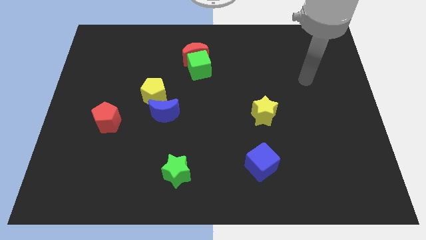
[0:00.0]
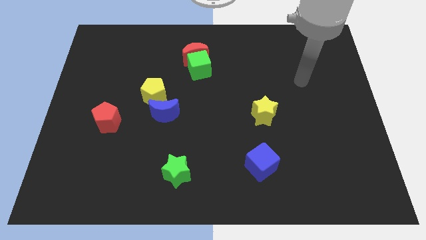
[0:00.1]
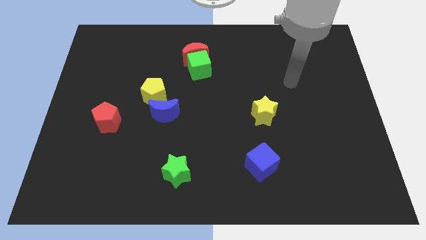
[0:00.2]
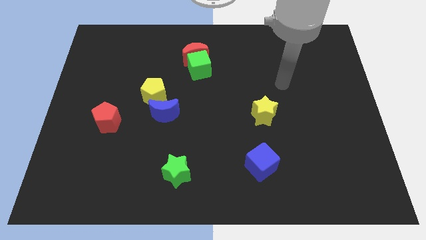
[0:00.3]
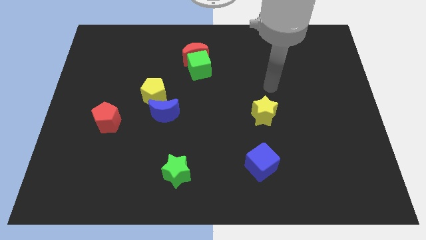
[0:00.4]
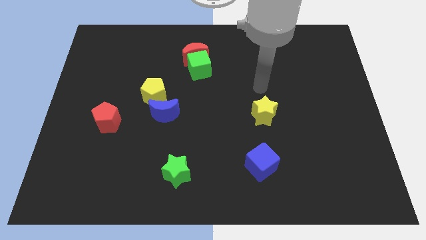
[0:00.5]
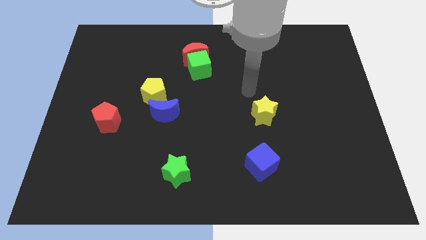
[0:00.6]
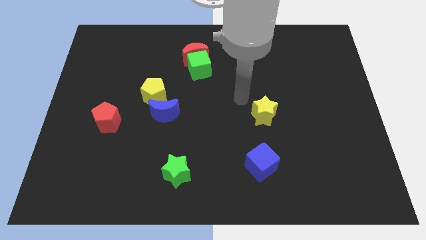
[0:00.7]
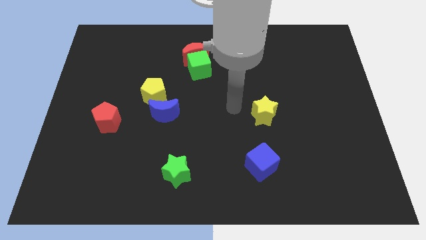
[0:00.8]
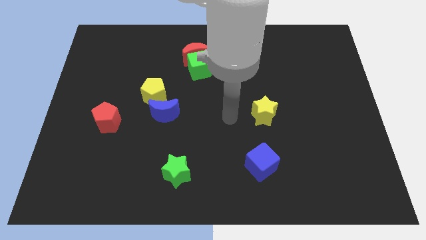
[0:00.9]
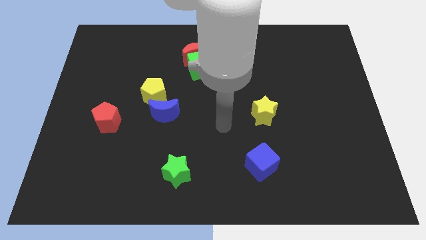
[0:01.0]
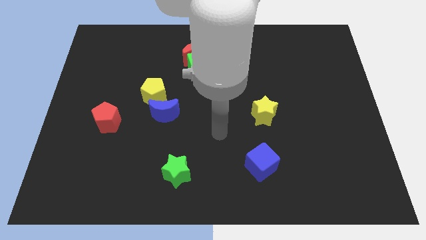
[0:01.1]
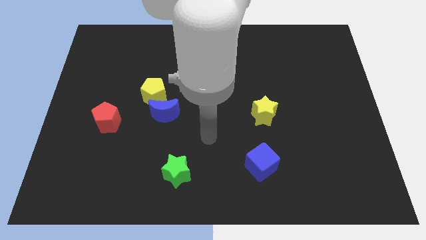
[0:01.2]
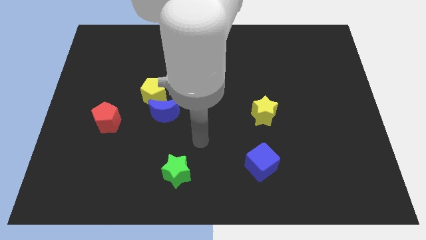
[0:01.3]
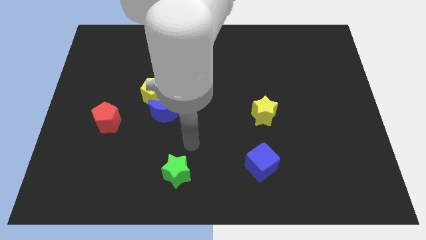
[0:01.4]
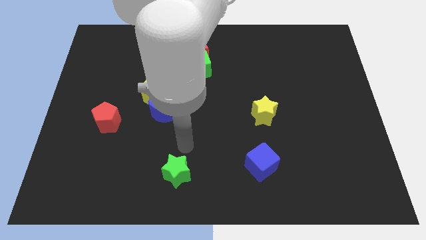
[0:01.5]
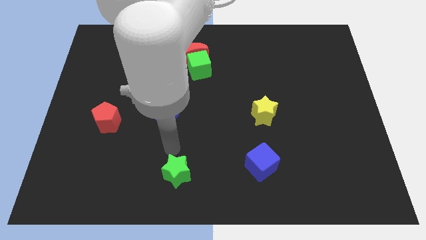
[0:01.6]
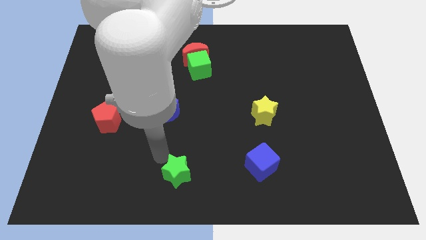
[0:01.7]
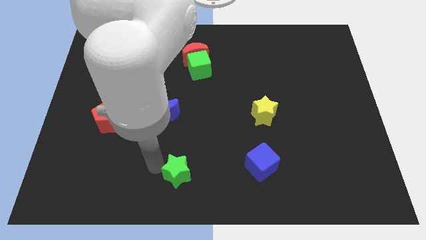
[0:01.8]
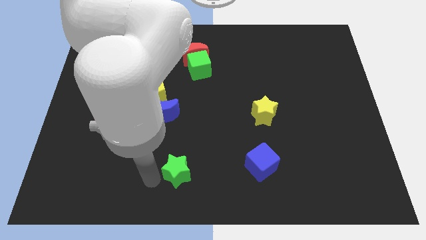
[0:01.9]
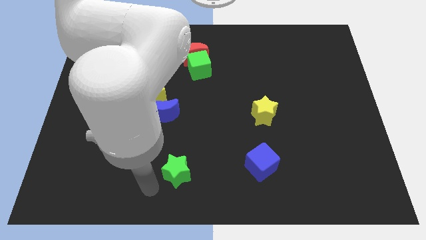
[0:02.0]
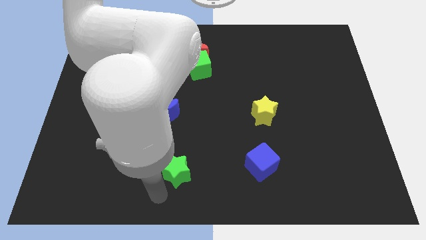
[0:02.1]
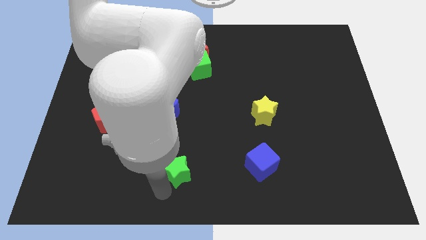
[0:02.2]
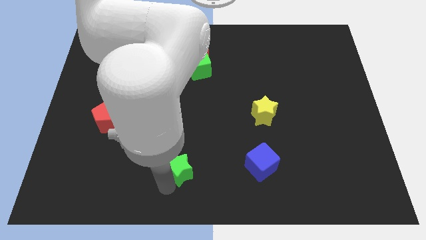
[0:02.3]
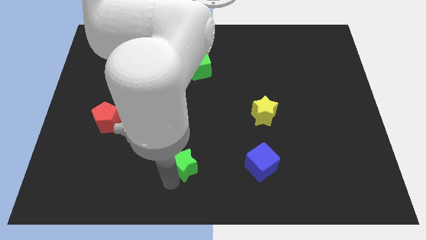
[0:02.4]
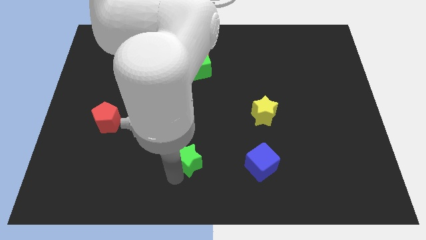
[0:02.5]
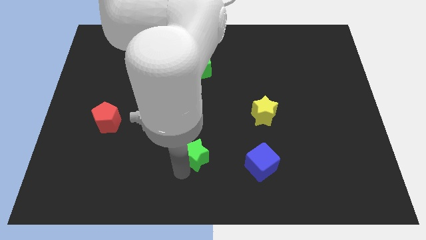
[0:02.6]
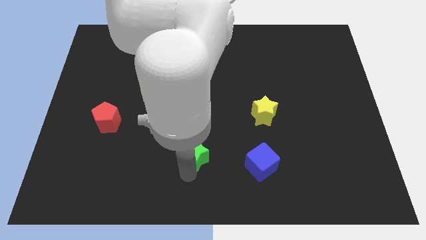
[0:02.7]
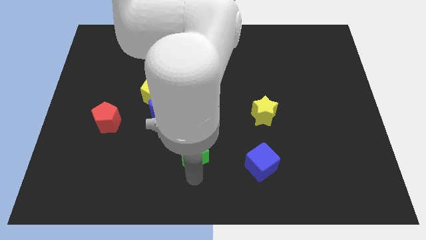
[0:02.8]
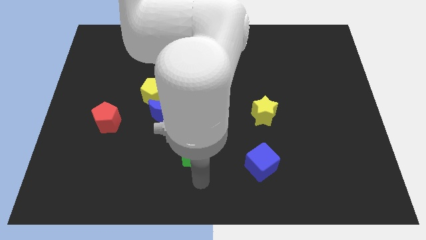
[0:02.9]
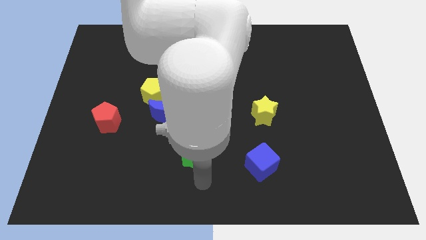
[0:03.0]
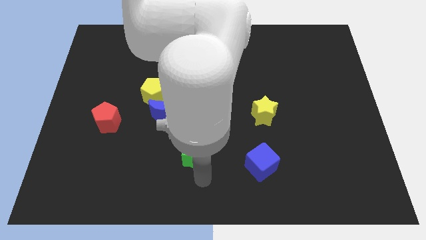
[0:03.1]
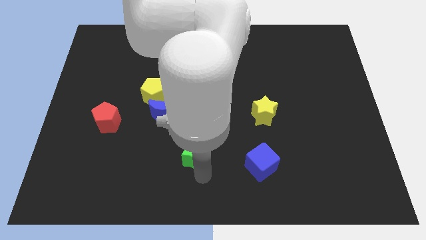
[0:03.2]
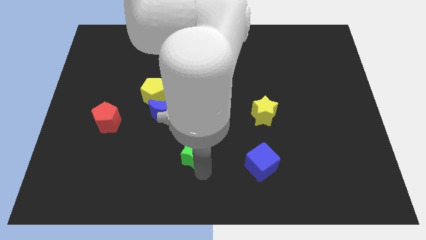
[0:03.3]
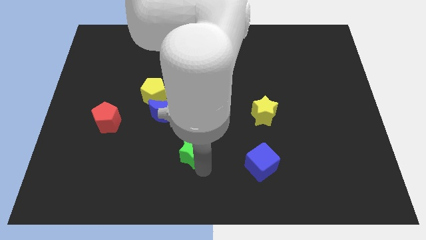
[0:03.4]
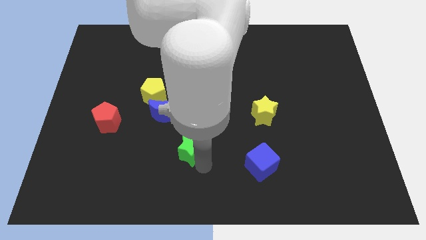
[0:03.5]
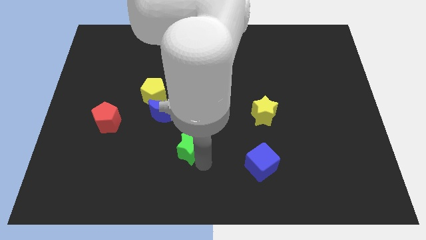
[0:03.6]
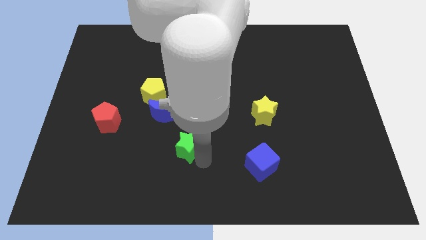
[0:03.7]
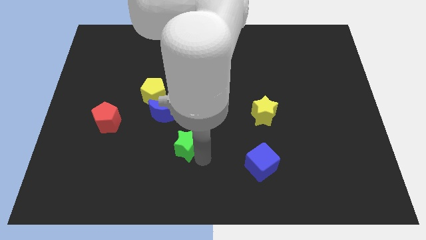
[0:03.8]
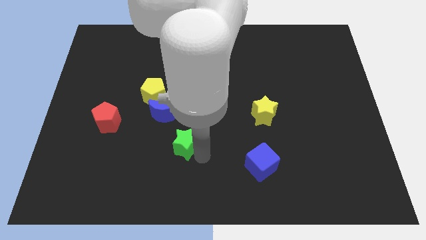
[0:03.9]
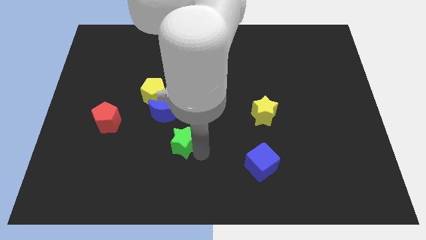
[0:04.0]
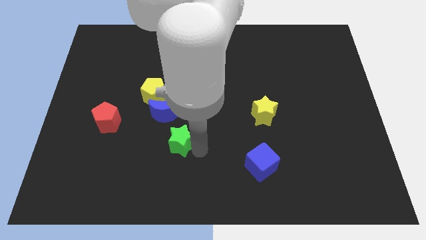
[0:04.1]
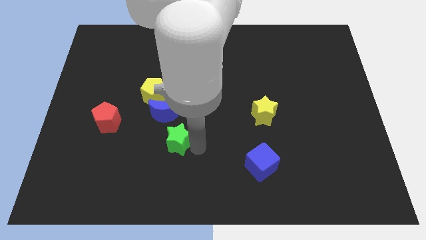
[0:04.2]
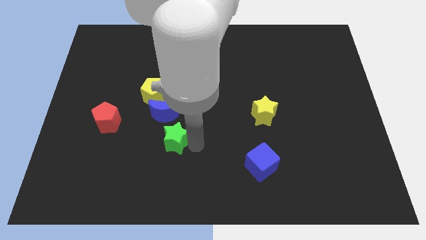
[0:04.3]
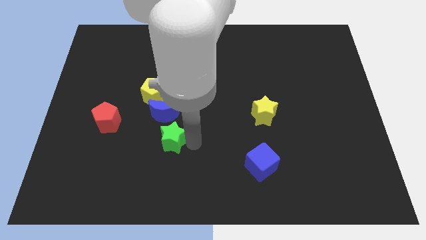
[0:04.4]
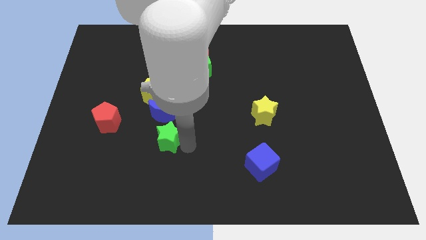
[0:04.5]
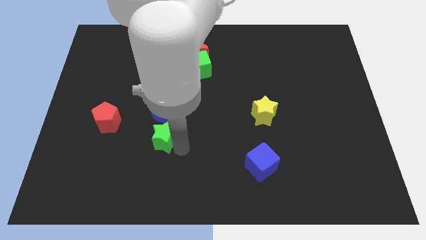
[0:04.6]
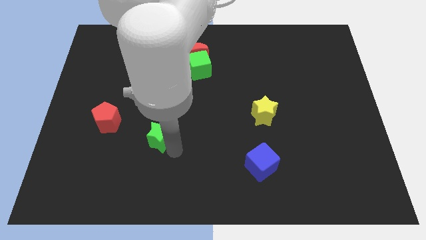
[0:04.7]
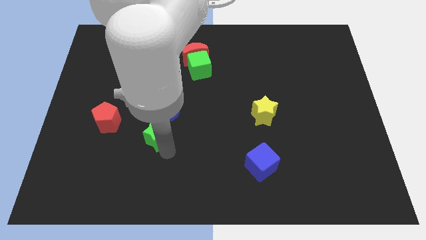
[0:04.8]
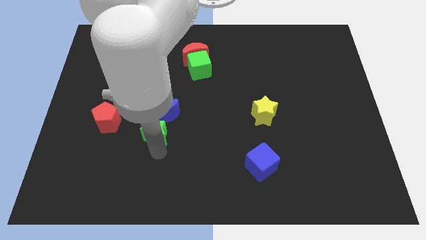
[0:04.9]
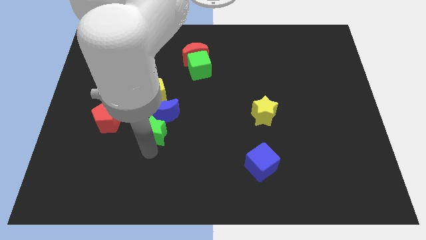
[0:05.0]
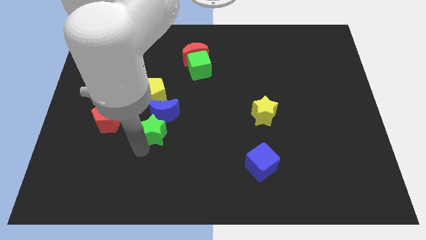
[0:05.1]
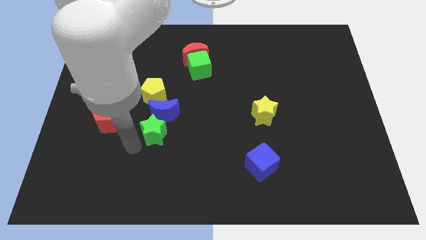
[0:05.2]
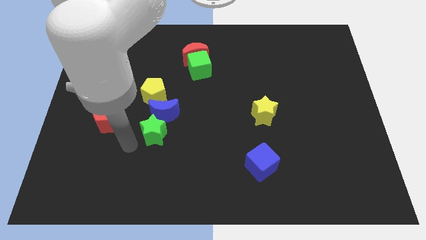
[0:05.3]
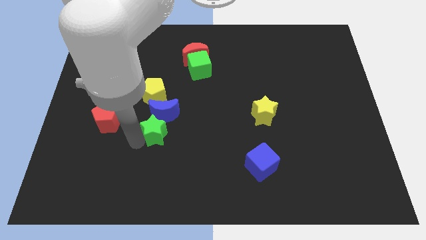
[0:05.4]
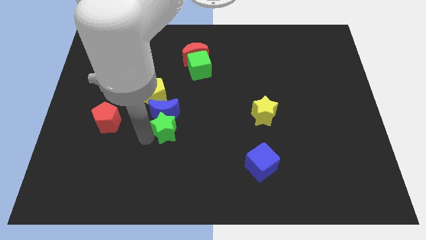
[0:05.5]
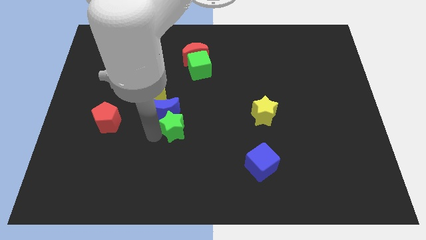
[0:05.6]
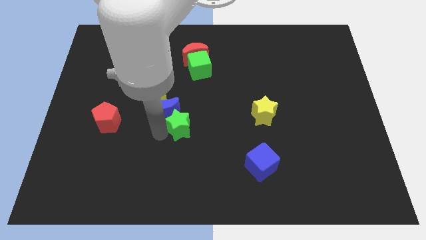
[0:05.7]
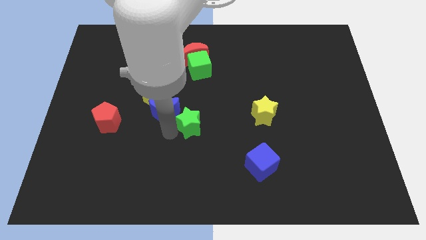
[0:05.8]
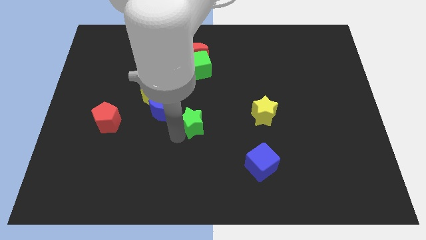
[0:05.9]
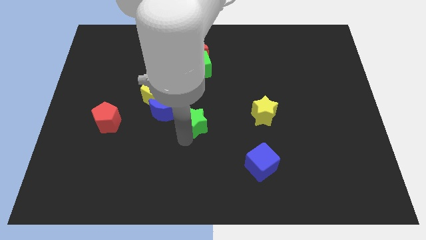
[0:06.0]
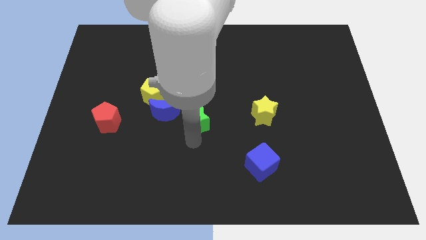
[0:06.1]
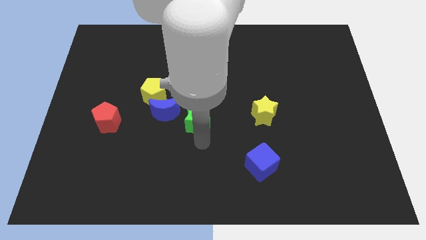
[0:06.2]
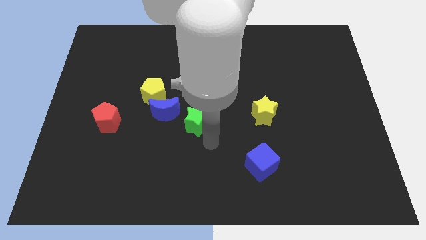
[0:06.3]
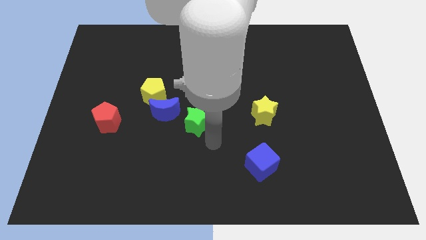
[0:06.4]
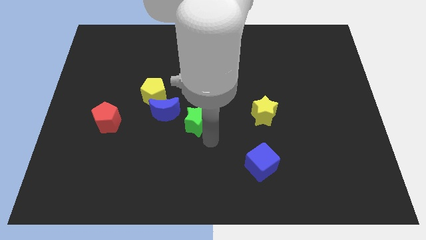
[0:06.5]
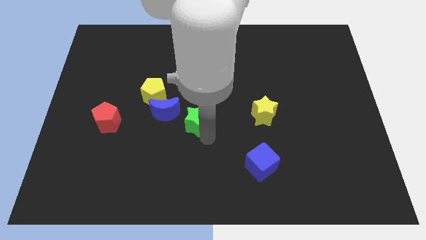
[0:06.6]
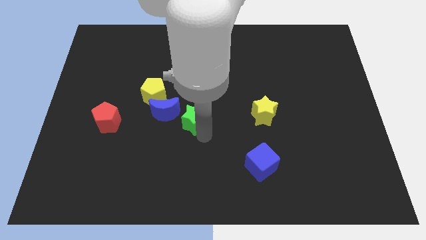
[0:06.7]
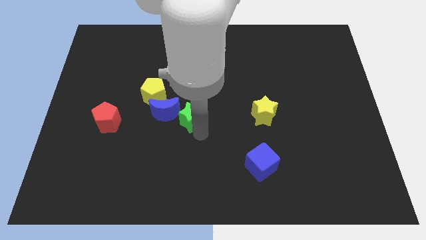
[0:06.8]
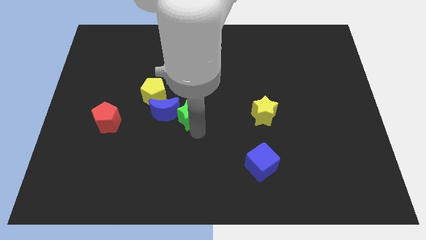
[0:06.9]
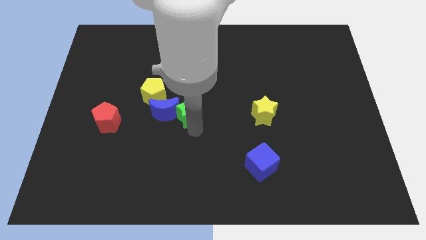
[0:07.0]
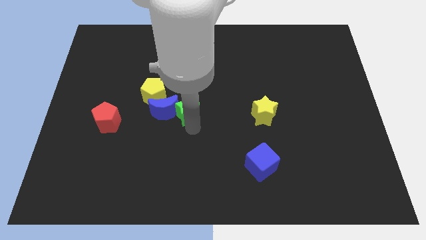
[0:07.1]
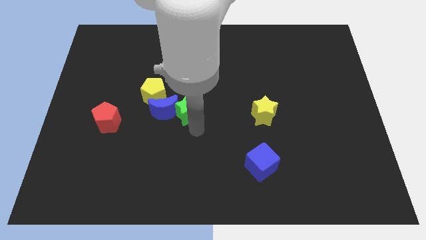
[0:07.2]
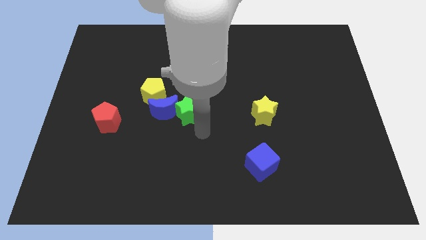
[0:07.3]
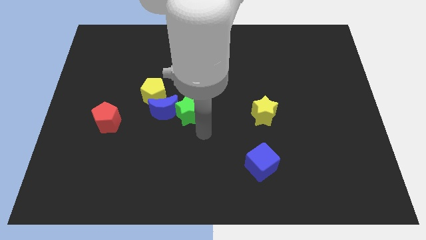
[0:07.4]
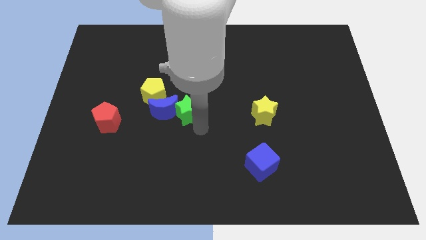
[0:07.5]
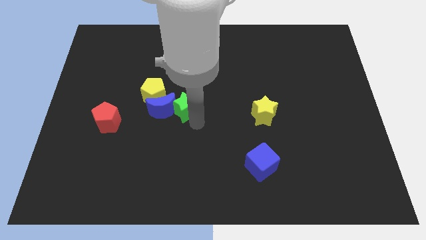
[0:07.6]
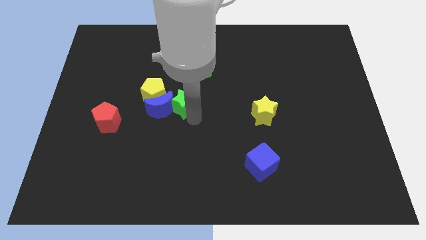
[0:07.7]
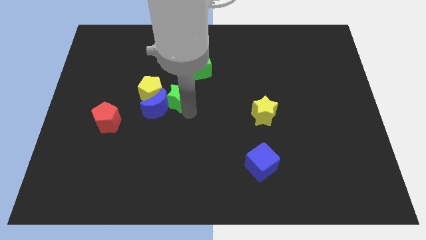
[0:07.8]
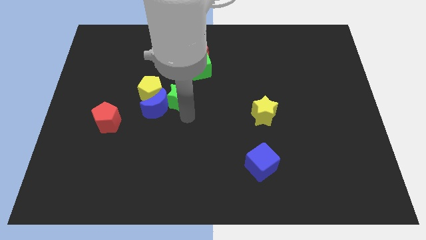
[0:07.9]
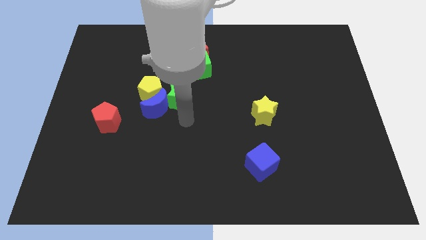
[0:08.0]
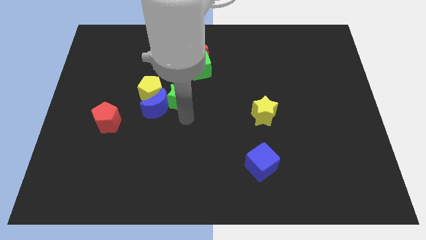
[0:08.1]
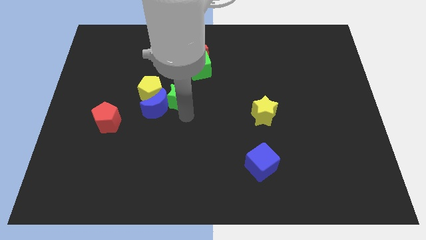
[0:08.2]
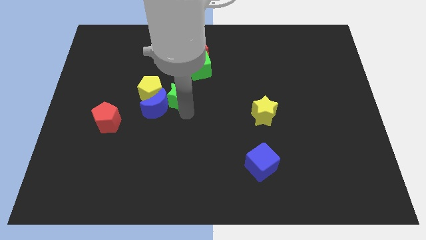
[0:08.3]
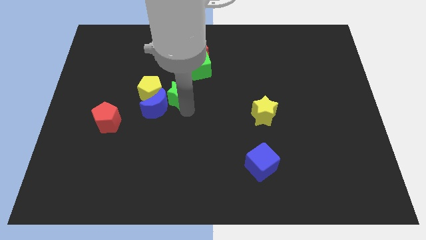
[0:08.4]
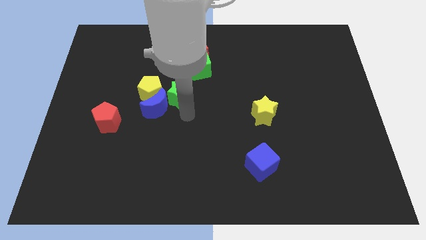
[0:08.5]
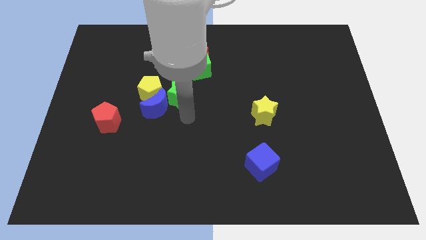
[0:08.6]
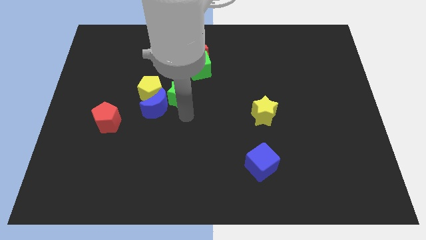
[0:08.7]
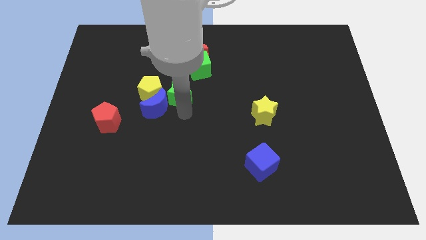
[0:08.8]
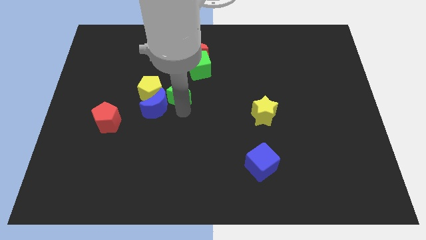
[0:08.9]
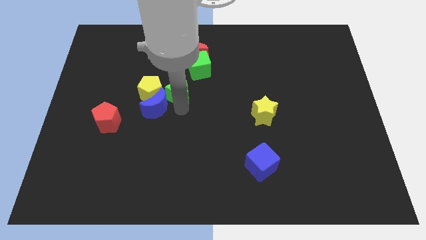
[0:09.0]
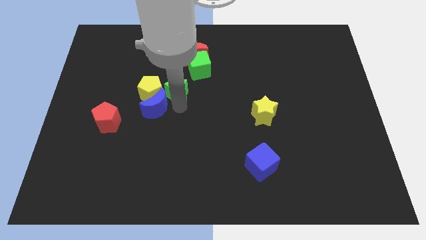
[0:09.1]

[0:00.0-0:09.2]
push the green star to the top right side of the yellow pentagon
